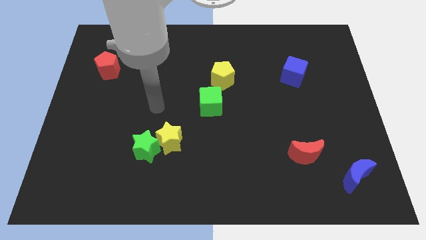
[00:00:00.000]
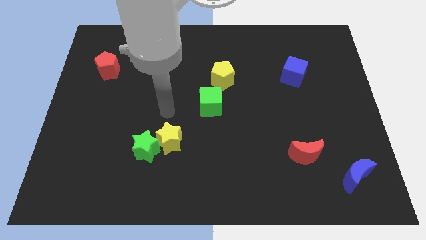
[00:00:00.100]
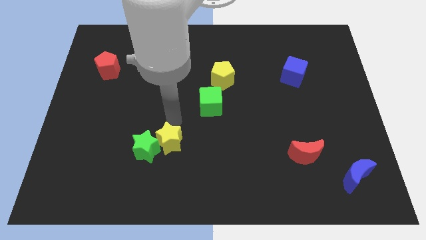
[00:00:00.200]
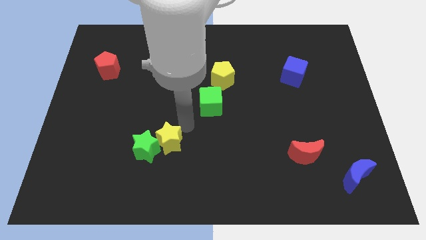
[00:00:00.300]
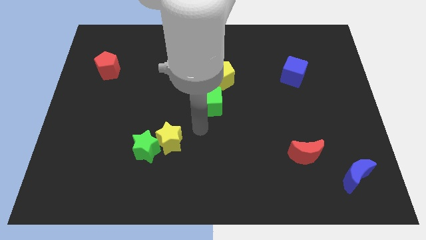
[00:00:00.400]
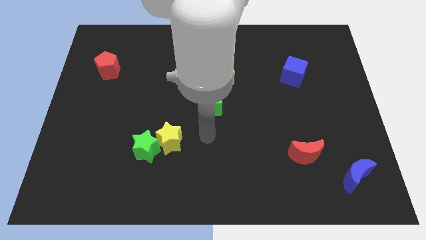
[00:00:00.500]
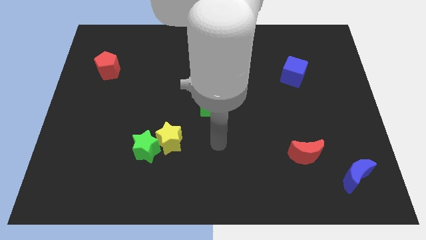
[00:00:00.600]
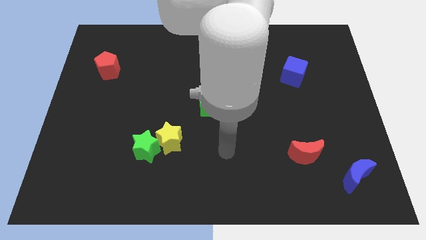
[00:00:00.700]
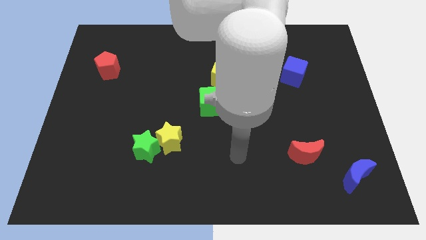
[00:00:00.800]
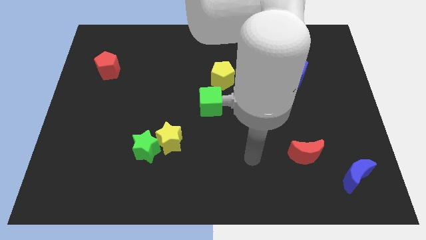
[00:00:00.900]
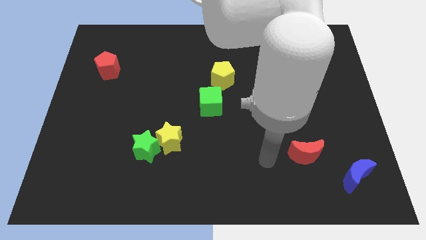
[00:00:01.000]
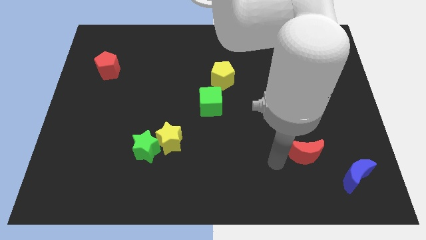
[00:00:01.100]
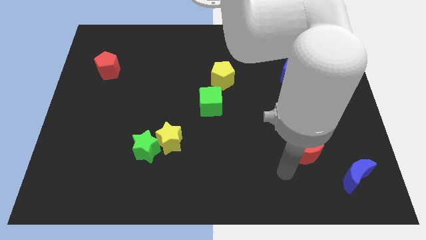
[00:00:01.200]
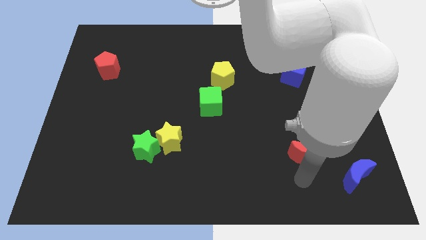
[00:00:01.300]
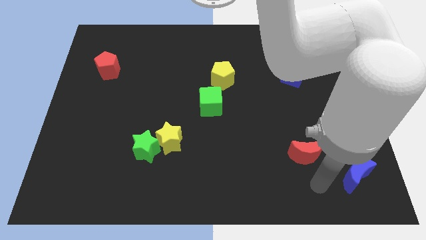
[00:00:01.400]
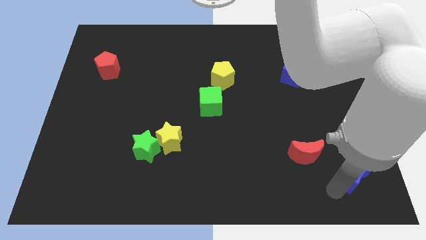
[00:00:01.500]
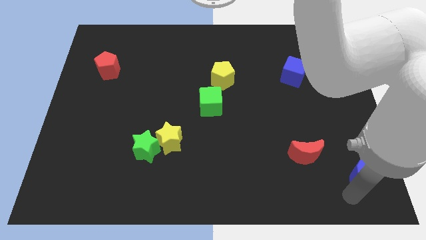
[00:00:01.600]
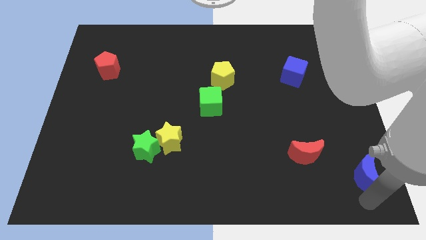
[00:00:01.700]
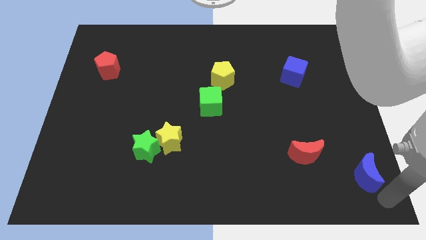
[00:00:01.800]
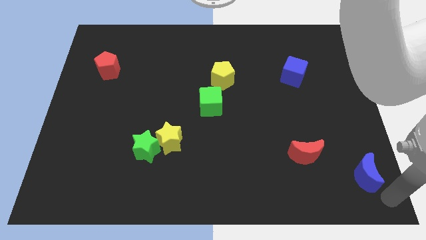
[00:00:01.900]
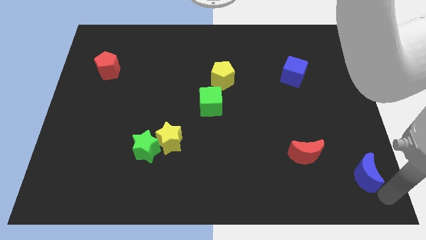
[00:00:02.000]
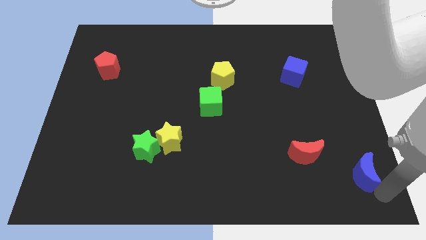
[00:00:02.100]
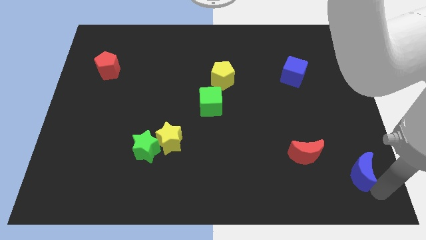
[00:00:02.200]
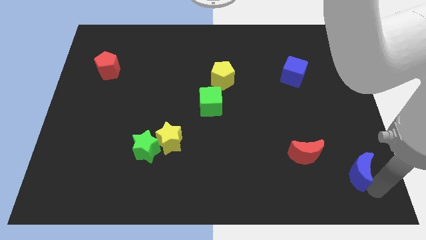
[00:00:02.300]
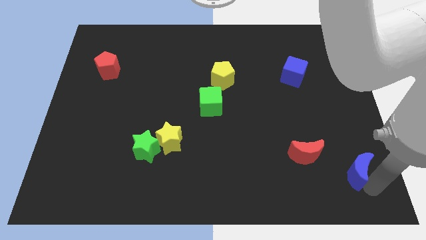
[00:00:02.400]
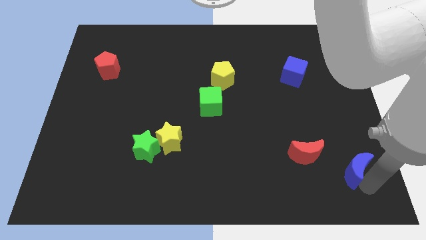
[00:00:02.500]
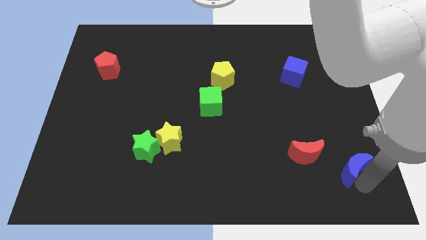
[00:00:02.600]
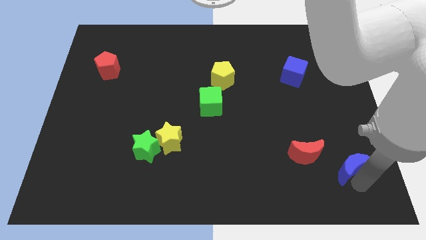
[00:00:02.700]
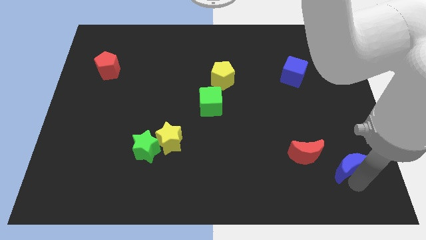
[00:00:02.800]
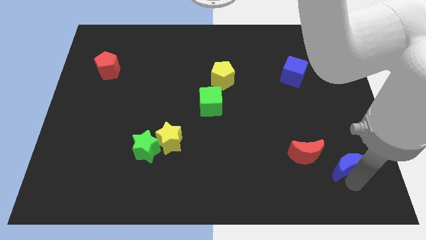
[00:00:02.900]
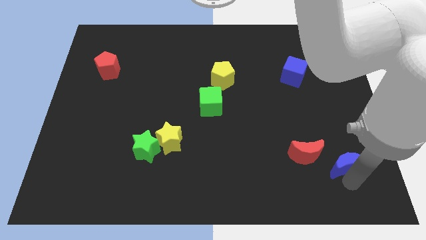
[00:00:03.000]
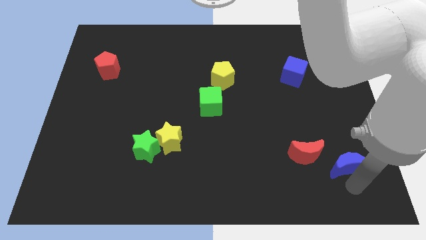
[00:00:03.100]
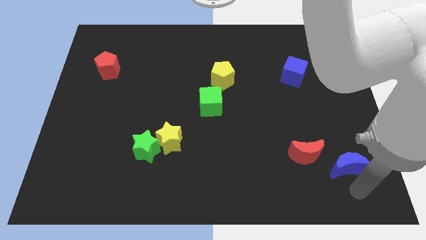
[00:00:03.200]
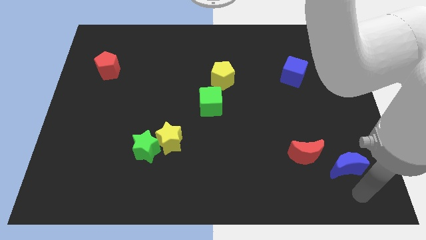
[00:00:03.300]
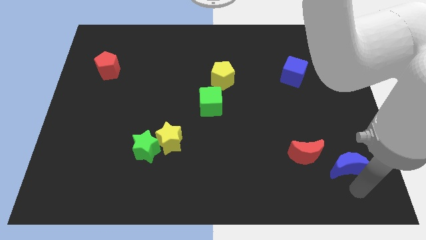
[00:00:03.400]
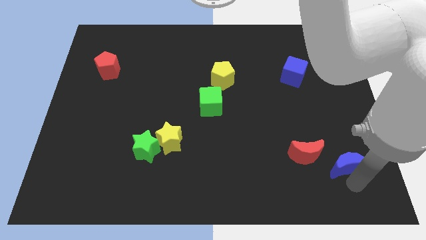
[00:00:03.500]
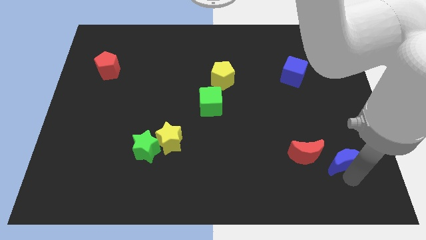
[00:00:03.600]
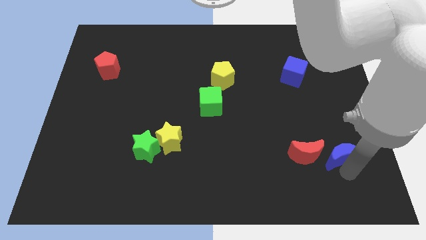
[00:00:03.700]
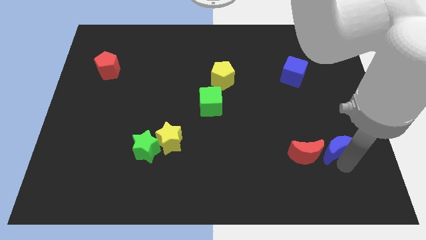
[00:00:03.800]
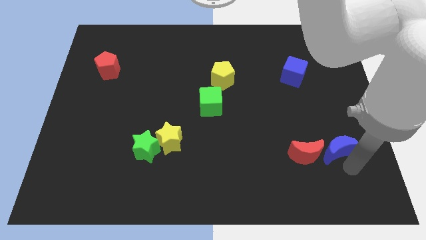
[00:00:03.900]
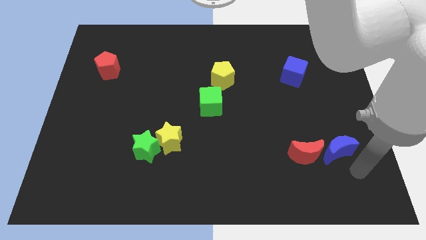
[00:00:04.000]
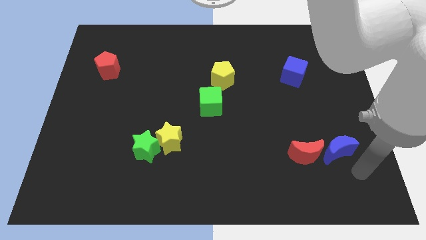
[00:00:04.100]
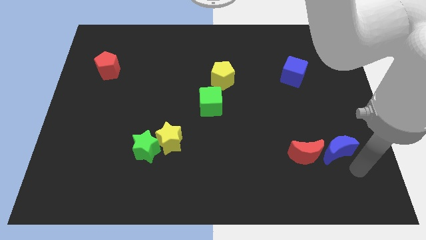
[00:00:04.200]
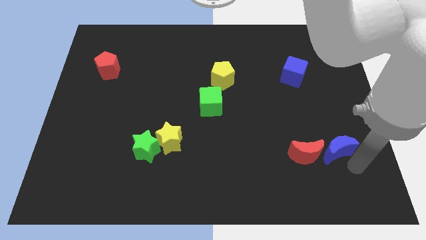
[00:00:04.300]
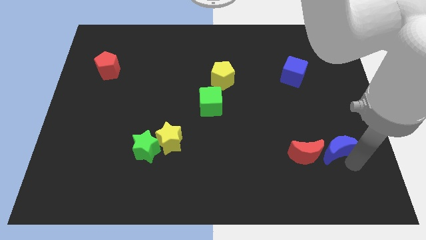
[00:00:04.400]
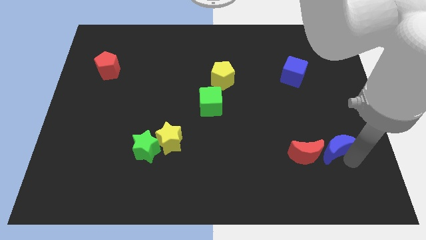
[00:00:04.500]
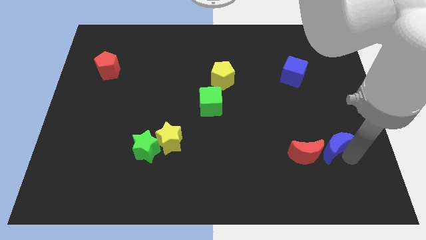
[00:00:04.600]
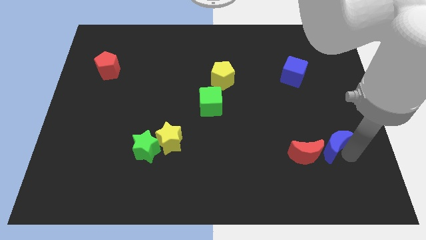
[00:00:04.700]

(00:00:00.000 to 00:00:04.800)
move the blue moon slightly upwards and left diagonally

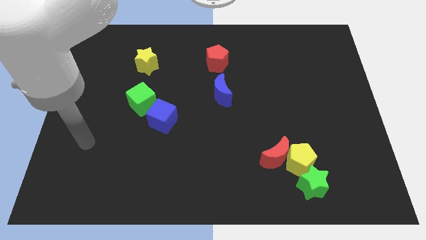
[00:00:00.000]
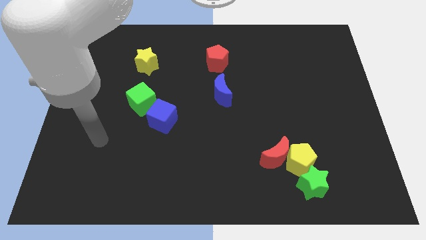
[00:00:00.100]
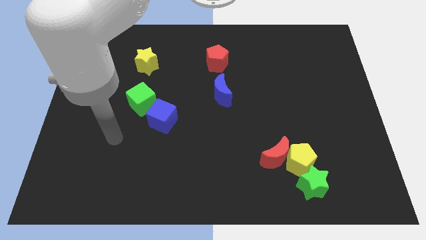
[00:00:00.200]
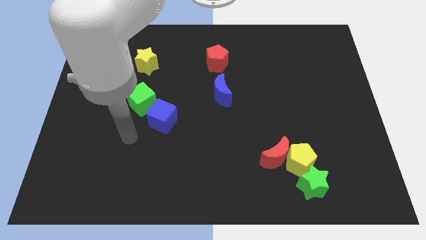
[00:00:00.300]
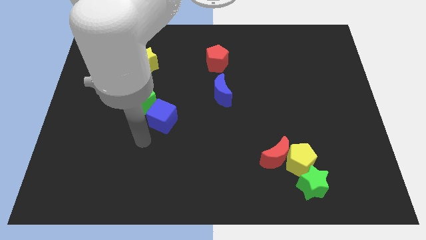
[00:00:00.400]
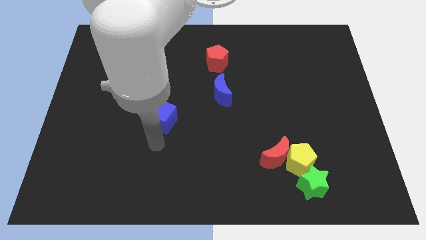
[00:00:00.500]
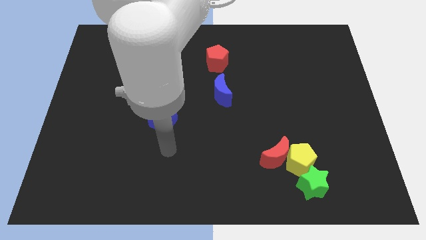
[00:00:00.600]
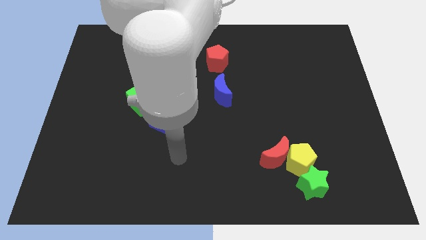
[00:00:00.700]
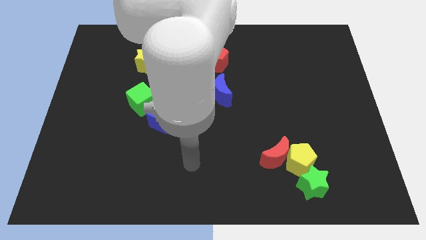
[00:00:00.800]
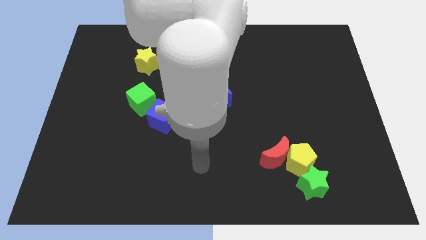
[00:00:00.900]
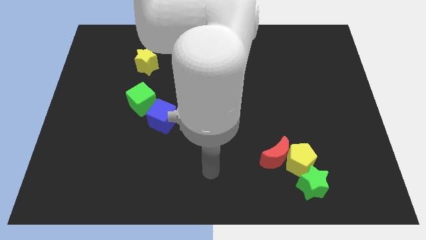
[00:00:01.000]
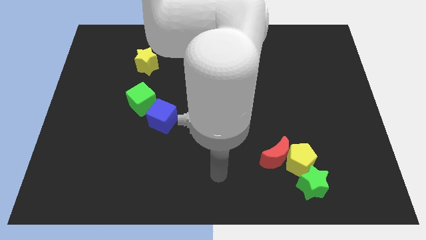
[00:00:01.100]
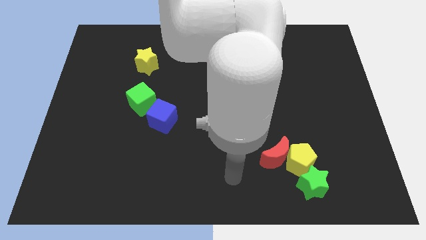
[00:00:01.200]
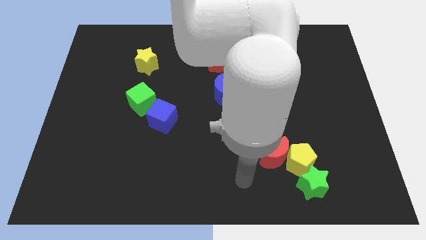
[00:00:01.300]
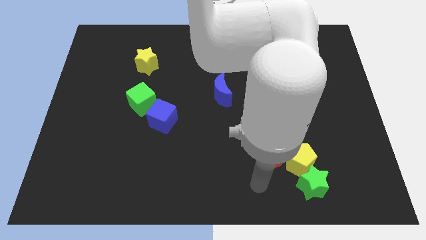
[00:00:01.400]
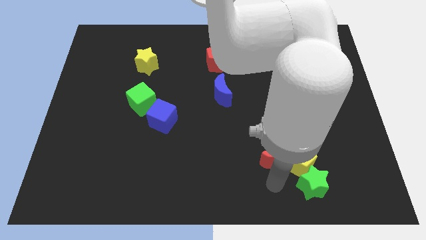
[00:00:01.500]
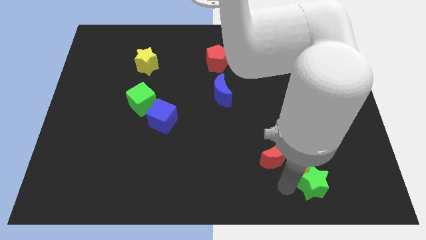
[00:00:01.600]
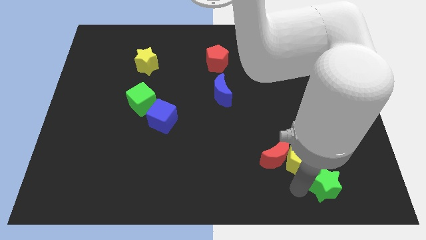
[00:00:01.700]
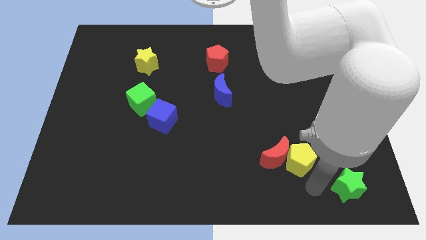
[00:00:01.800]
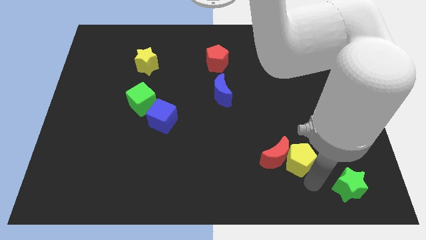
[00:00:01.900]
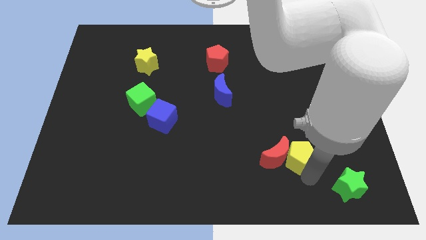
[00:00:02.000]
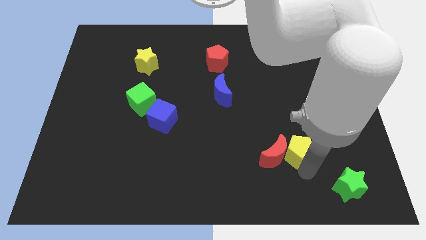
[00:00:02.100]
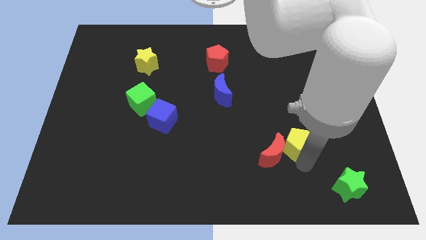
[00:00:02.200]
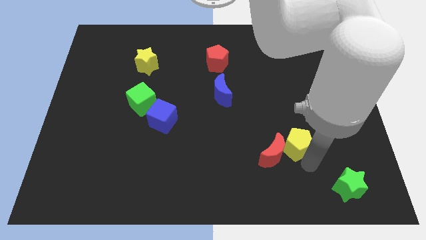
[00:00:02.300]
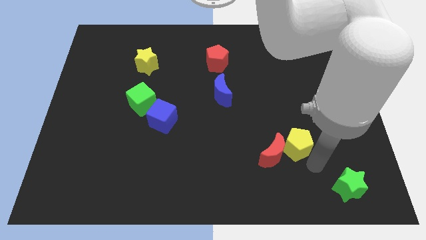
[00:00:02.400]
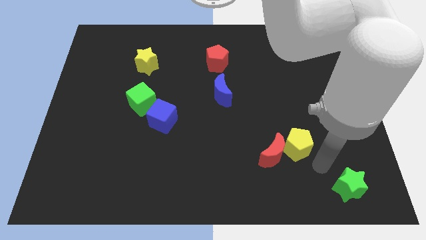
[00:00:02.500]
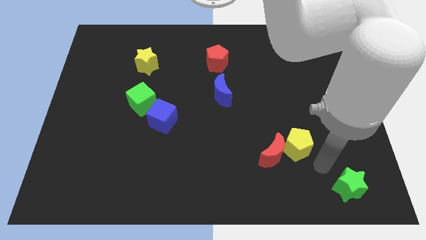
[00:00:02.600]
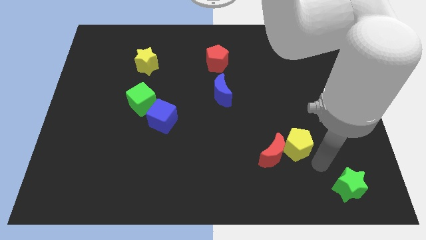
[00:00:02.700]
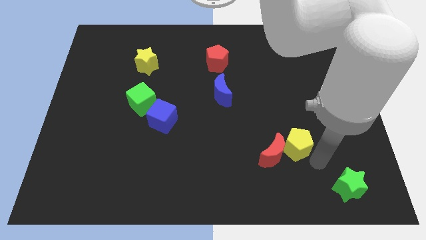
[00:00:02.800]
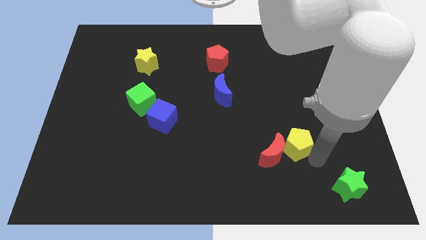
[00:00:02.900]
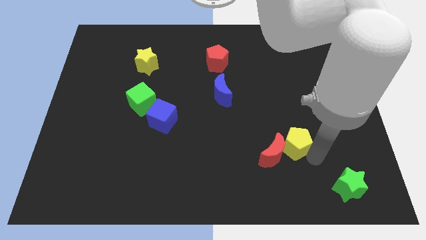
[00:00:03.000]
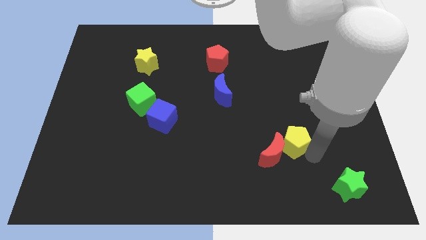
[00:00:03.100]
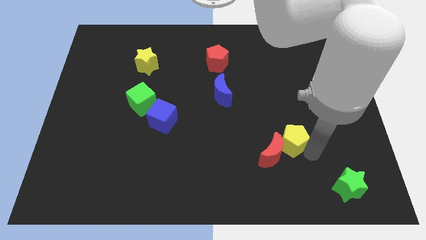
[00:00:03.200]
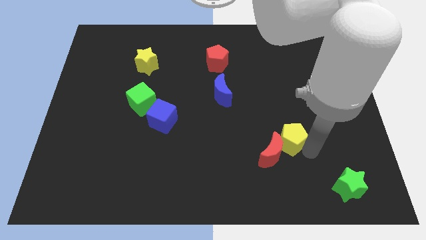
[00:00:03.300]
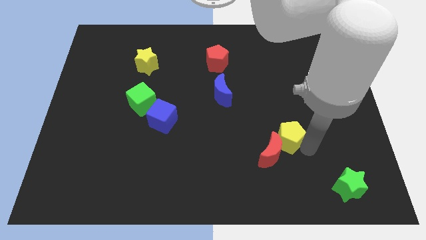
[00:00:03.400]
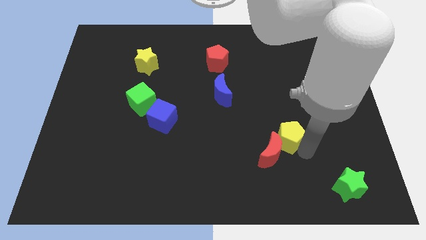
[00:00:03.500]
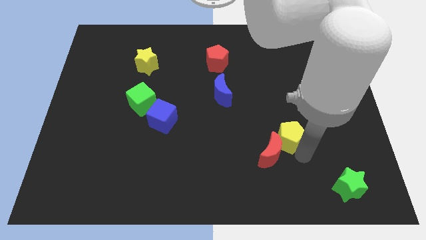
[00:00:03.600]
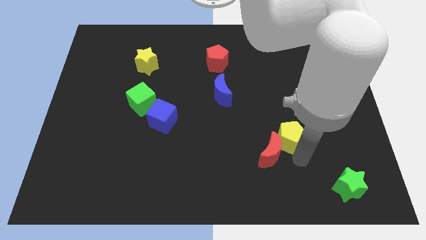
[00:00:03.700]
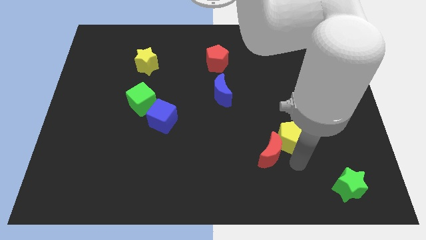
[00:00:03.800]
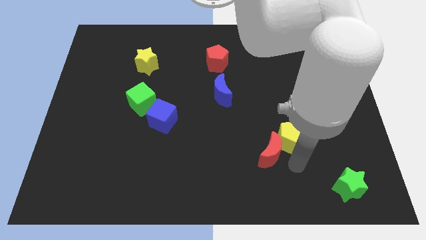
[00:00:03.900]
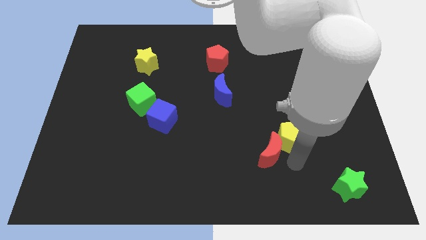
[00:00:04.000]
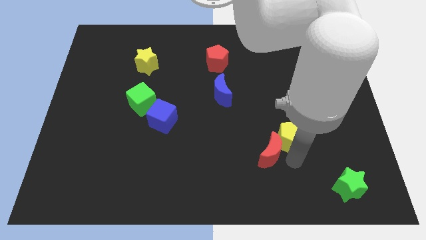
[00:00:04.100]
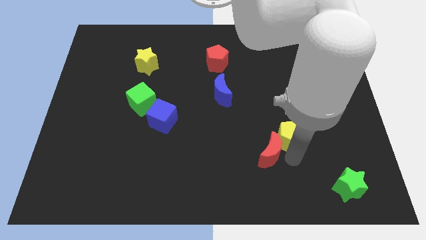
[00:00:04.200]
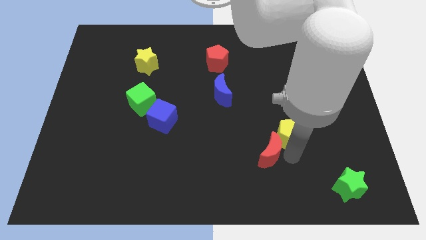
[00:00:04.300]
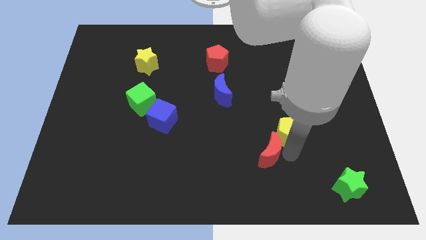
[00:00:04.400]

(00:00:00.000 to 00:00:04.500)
slide the yellow pentagon a bit upwards
